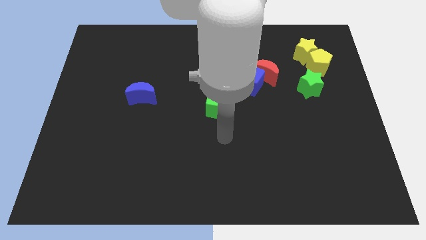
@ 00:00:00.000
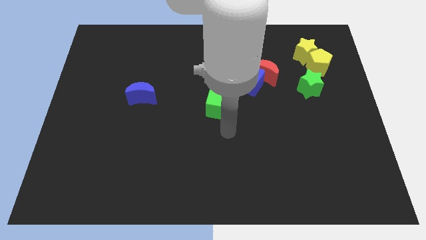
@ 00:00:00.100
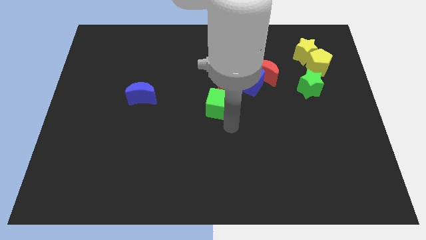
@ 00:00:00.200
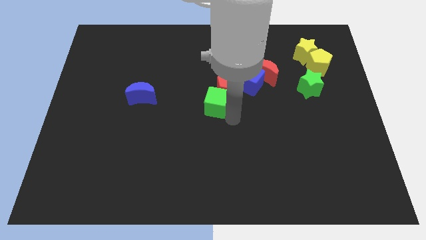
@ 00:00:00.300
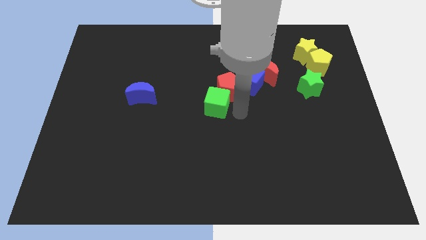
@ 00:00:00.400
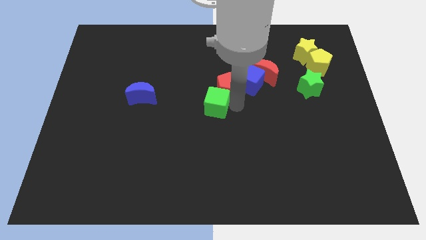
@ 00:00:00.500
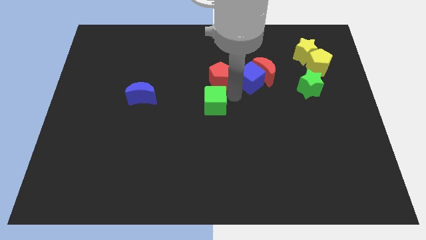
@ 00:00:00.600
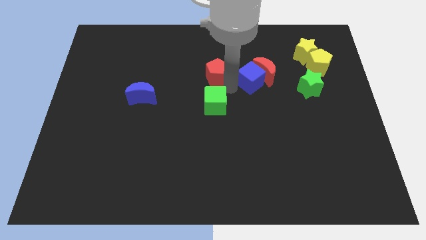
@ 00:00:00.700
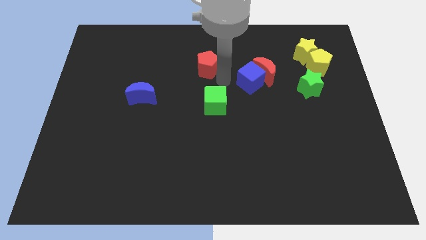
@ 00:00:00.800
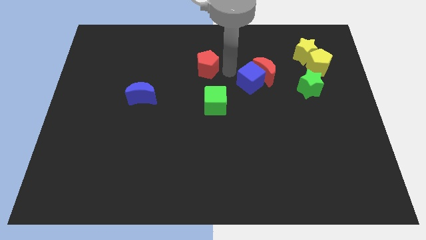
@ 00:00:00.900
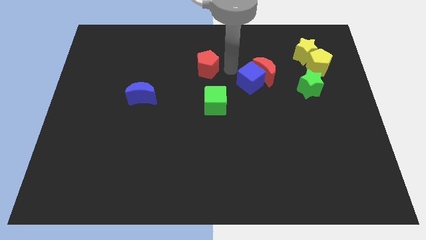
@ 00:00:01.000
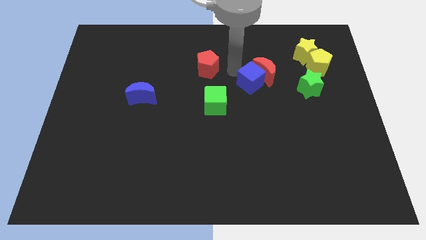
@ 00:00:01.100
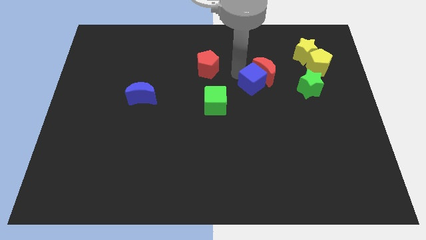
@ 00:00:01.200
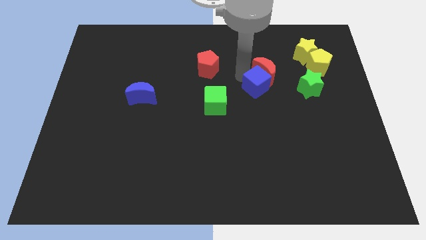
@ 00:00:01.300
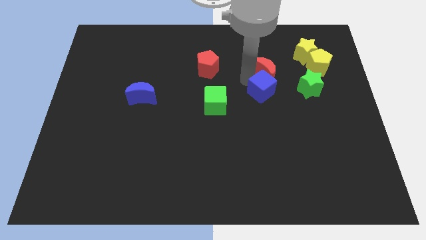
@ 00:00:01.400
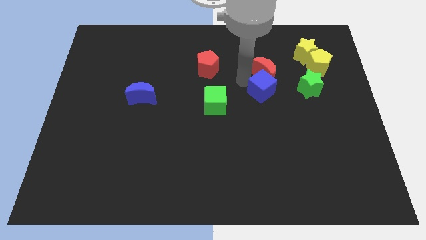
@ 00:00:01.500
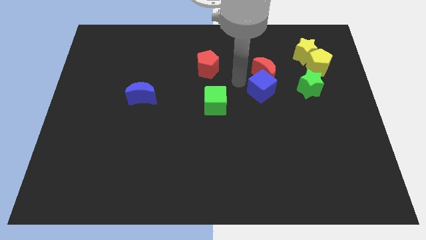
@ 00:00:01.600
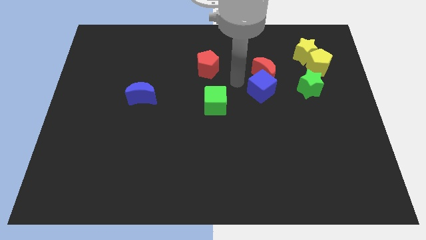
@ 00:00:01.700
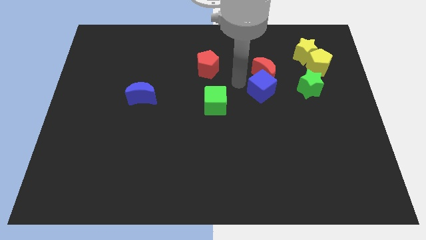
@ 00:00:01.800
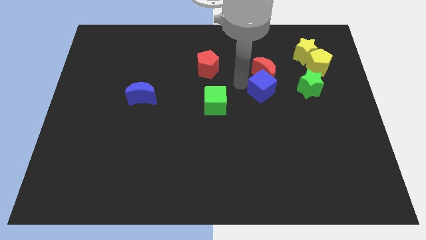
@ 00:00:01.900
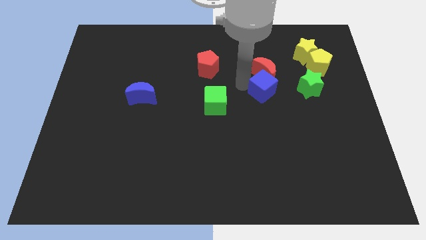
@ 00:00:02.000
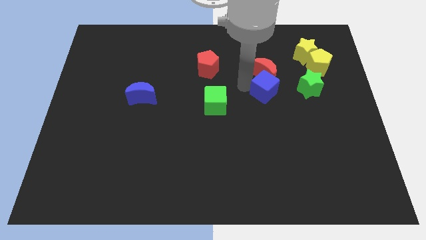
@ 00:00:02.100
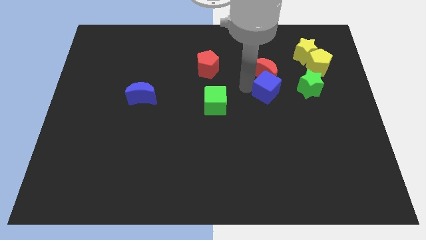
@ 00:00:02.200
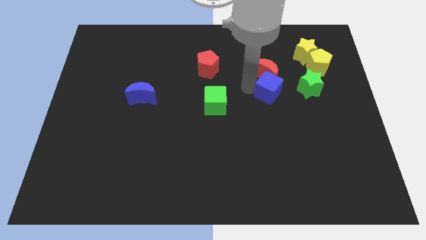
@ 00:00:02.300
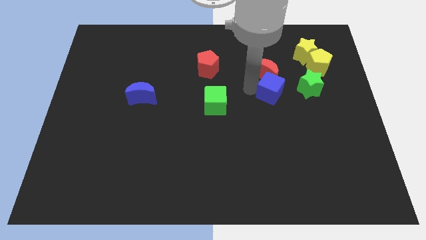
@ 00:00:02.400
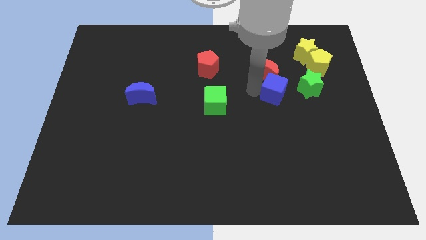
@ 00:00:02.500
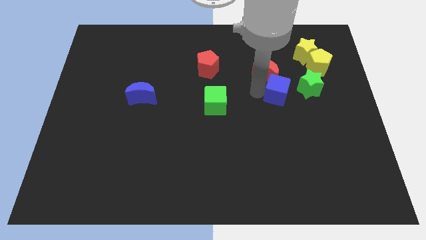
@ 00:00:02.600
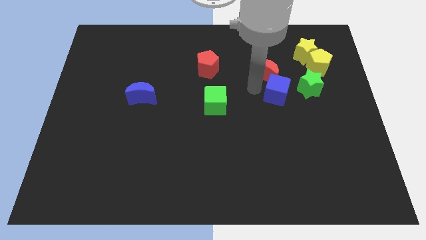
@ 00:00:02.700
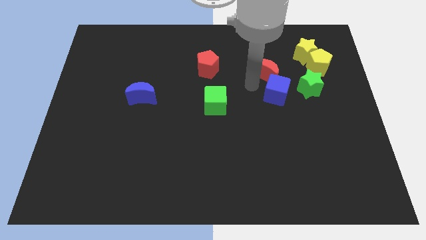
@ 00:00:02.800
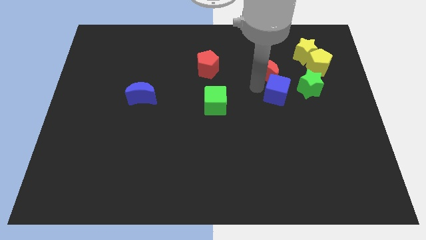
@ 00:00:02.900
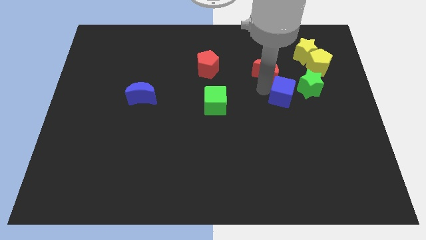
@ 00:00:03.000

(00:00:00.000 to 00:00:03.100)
move the blue cube to the right a bit

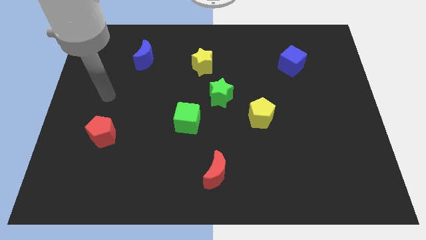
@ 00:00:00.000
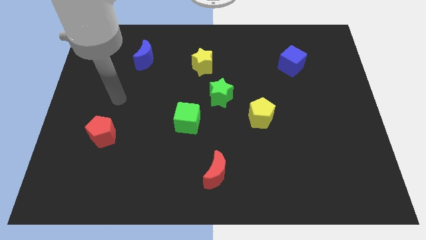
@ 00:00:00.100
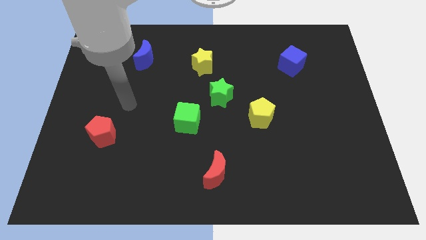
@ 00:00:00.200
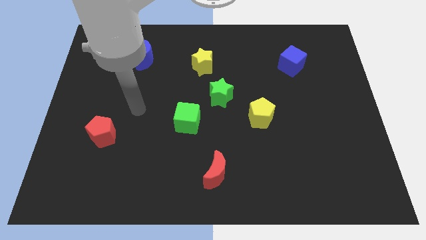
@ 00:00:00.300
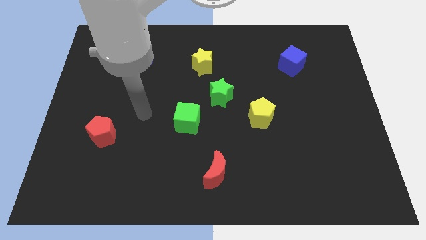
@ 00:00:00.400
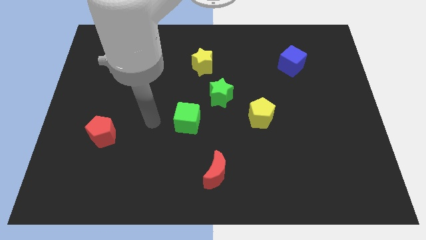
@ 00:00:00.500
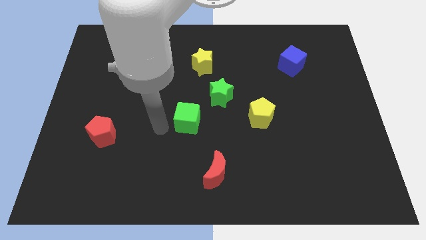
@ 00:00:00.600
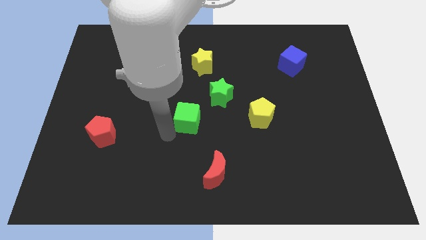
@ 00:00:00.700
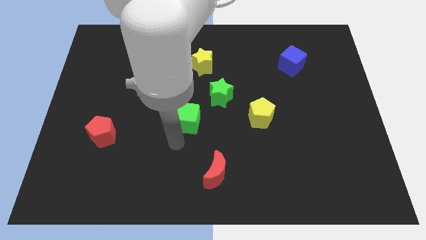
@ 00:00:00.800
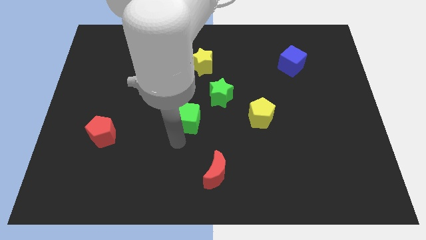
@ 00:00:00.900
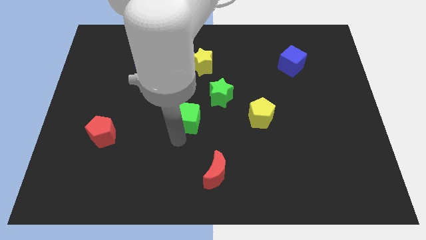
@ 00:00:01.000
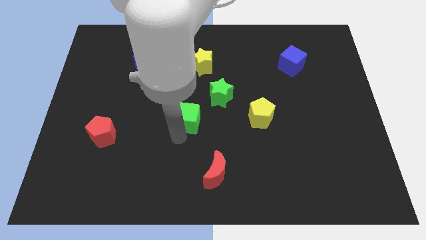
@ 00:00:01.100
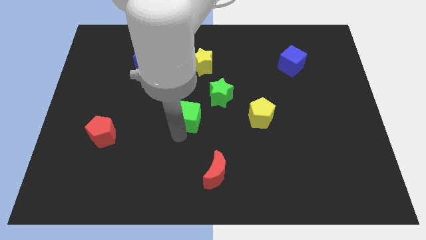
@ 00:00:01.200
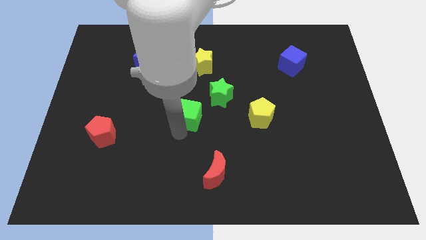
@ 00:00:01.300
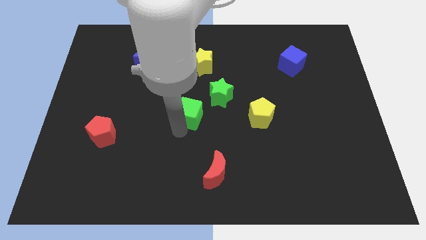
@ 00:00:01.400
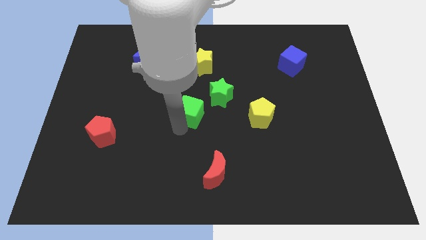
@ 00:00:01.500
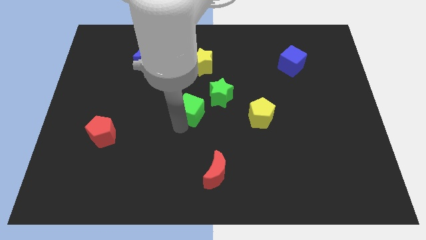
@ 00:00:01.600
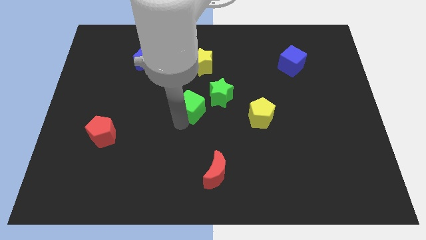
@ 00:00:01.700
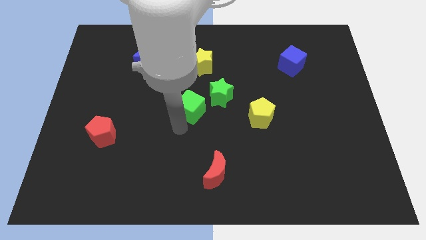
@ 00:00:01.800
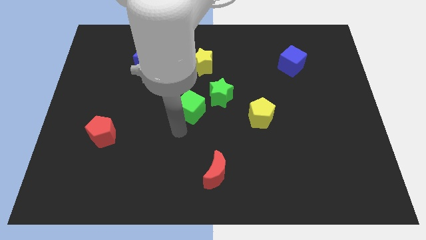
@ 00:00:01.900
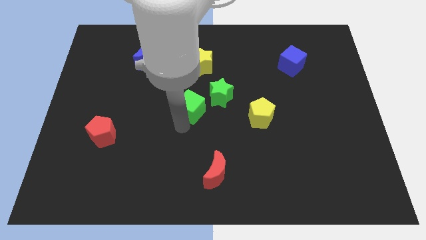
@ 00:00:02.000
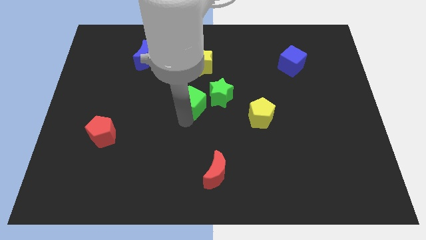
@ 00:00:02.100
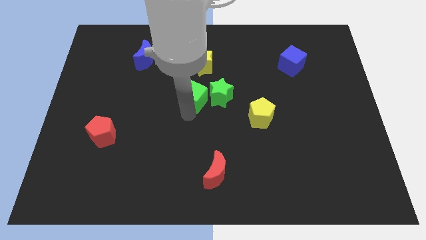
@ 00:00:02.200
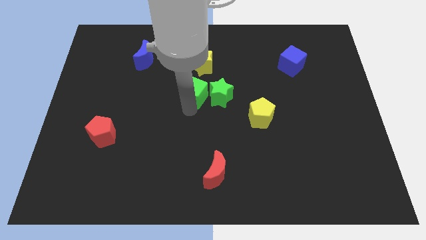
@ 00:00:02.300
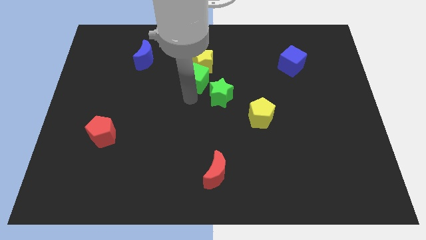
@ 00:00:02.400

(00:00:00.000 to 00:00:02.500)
slide the green cube diagonally up and right a little bit

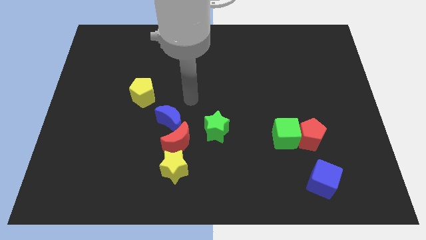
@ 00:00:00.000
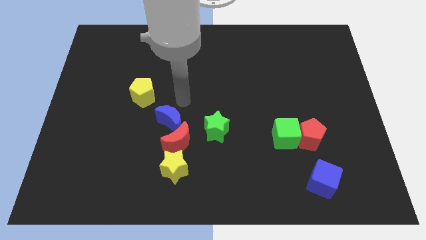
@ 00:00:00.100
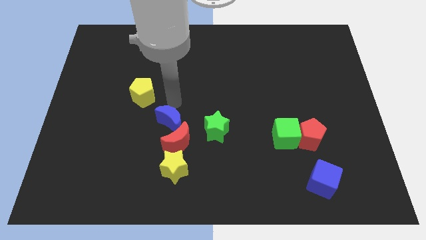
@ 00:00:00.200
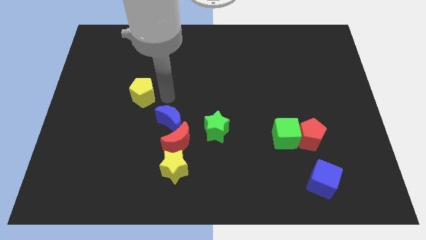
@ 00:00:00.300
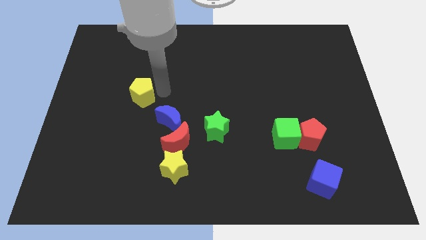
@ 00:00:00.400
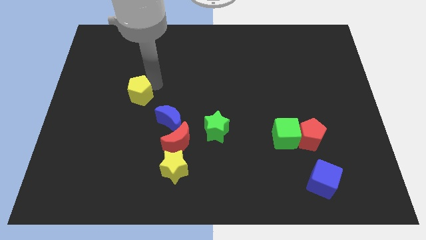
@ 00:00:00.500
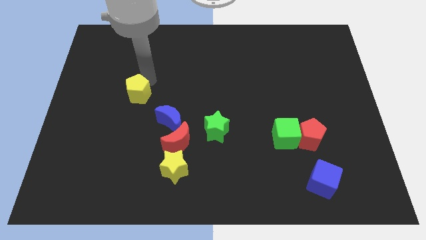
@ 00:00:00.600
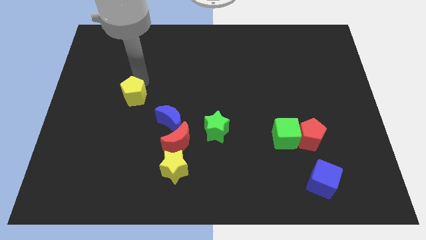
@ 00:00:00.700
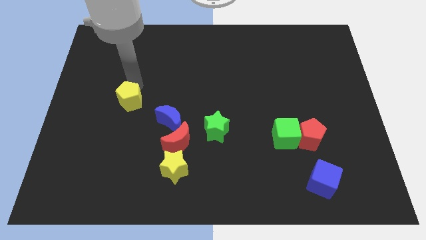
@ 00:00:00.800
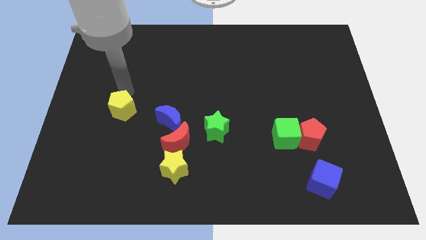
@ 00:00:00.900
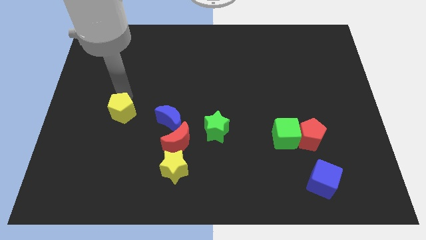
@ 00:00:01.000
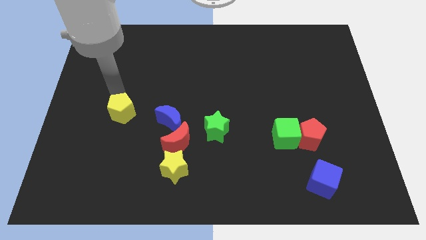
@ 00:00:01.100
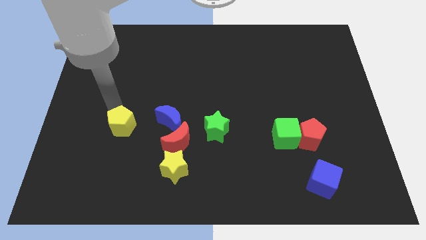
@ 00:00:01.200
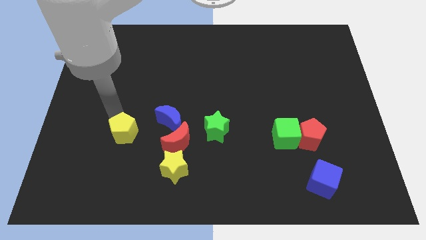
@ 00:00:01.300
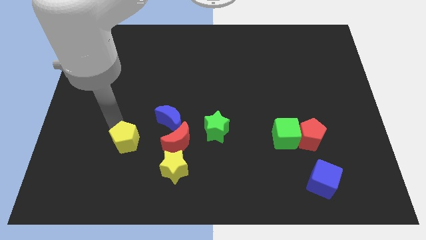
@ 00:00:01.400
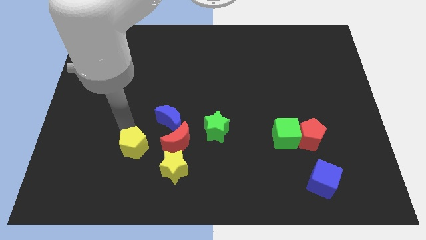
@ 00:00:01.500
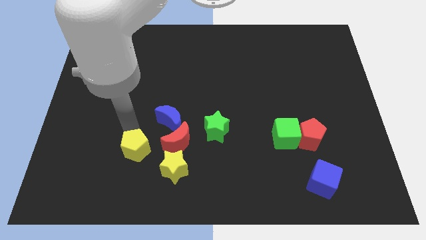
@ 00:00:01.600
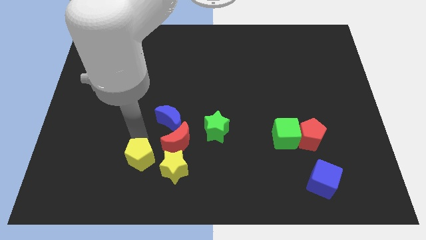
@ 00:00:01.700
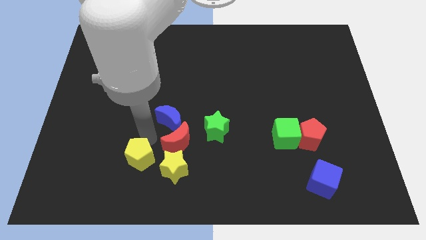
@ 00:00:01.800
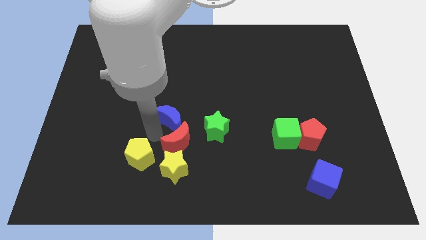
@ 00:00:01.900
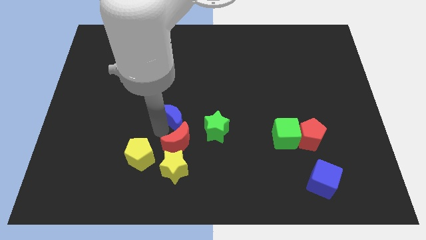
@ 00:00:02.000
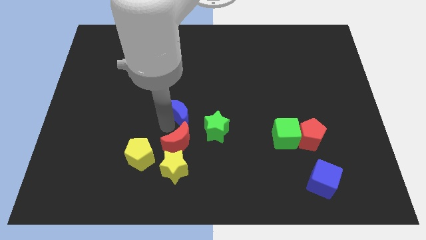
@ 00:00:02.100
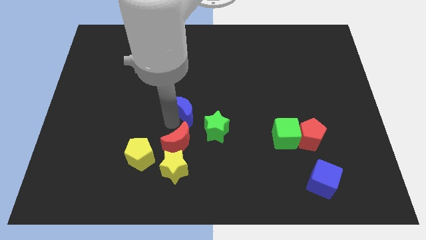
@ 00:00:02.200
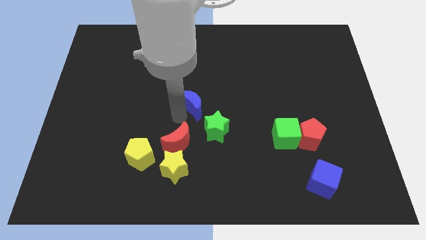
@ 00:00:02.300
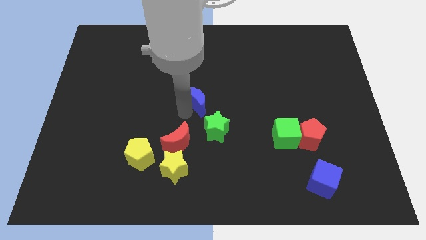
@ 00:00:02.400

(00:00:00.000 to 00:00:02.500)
slightly move the blue moon up and to the right diagonally
